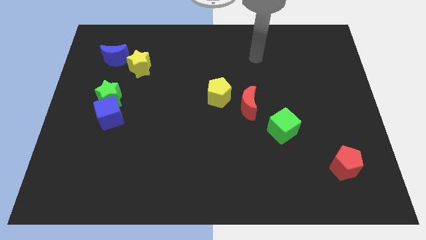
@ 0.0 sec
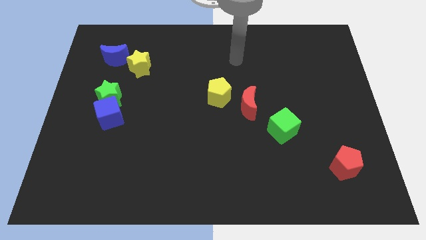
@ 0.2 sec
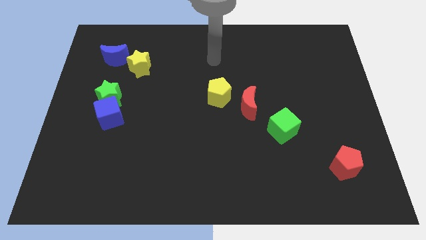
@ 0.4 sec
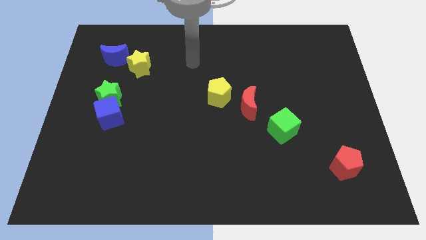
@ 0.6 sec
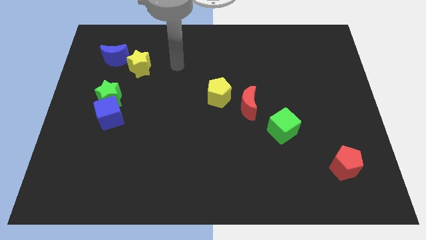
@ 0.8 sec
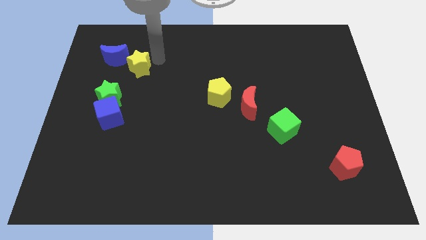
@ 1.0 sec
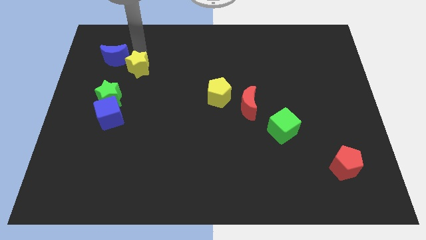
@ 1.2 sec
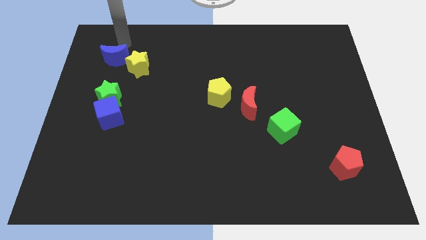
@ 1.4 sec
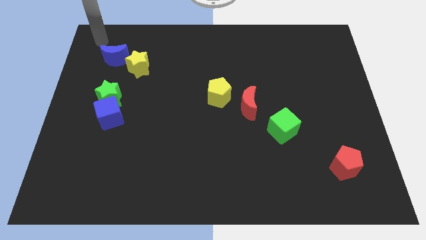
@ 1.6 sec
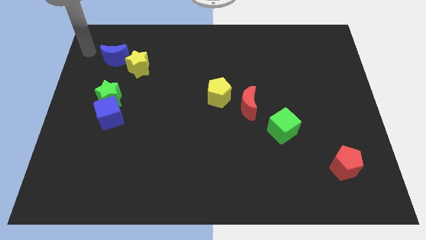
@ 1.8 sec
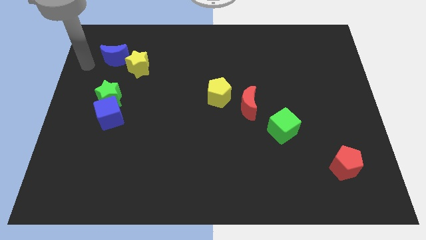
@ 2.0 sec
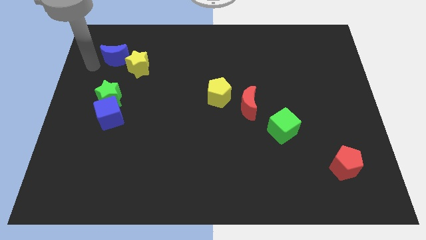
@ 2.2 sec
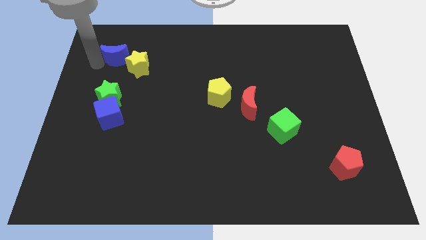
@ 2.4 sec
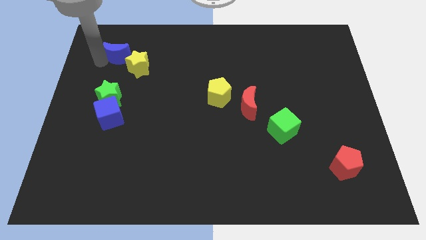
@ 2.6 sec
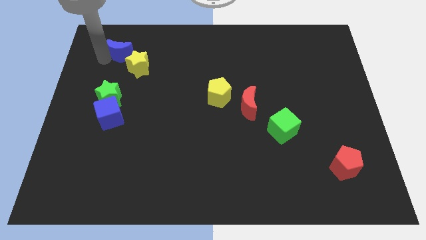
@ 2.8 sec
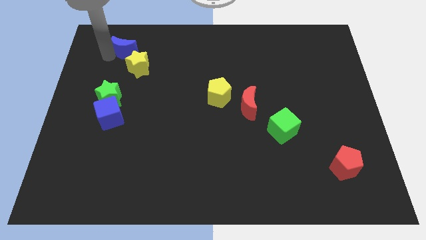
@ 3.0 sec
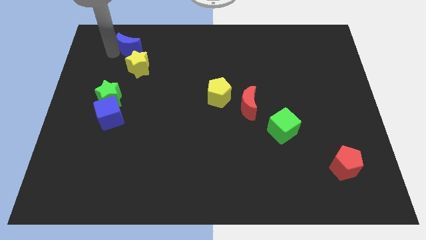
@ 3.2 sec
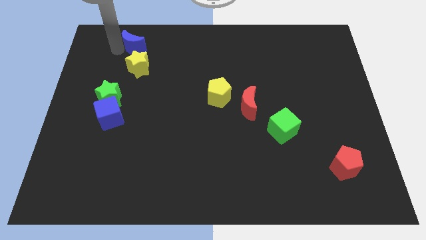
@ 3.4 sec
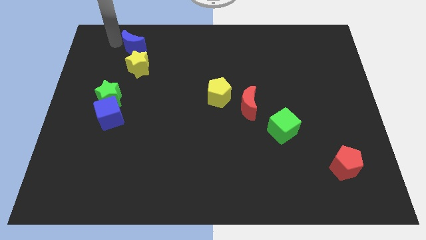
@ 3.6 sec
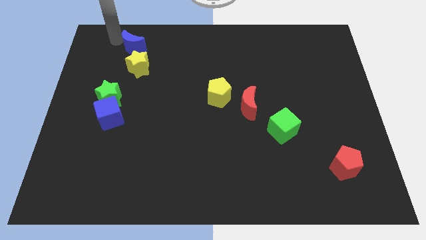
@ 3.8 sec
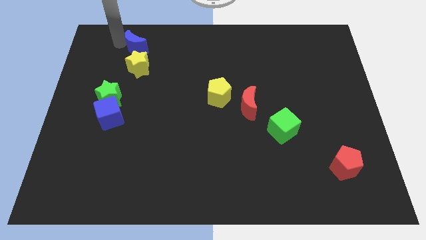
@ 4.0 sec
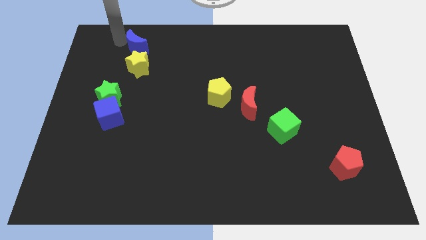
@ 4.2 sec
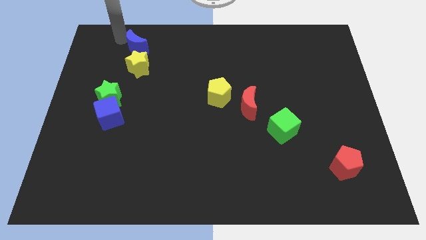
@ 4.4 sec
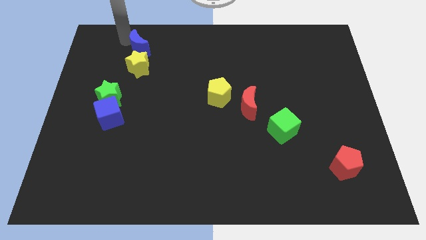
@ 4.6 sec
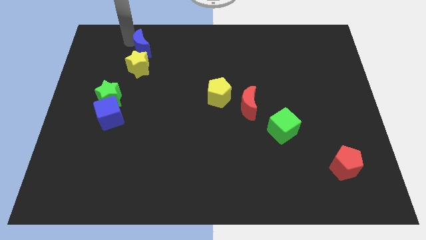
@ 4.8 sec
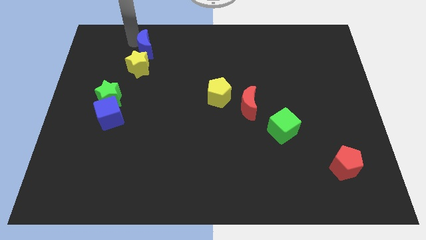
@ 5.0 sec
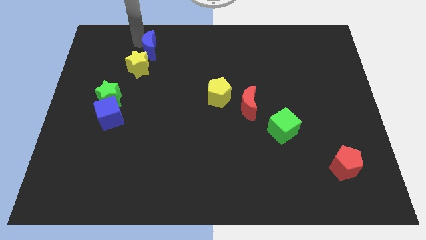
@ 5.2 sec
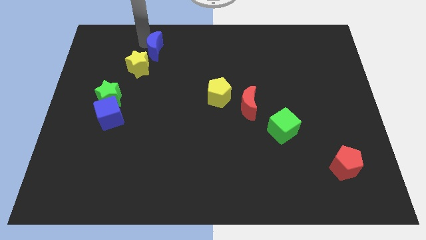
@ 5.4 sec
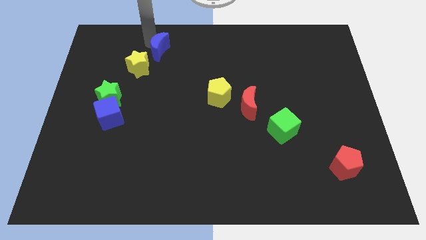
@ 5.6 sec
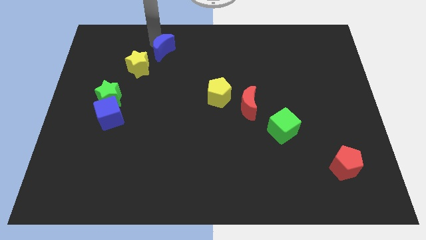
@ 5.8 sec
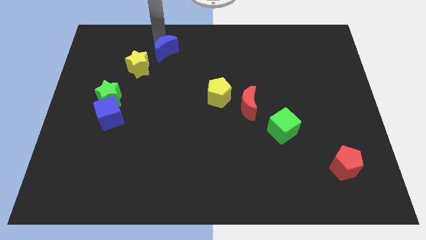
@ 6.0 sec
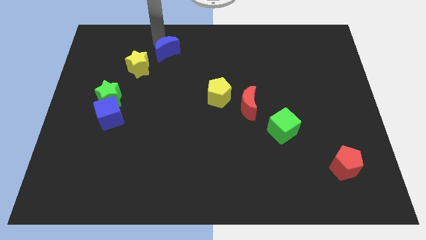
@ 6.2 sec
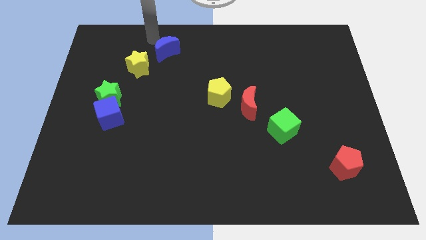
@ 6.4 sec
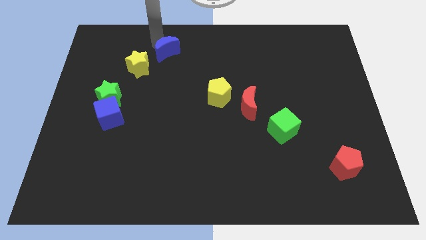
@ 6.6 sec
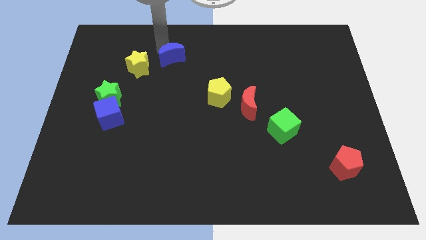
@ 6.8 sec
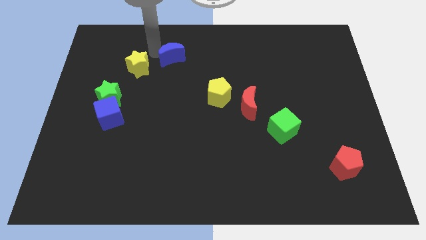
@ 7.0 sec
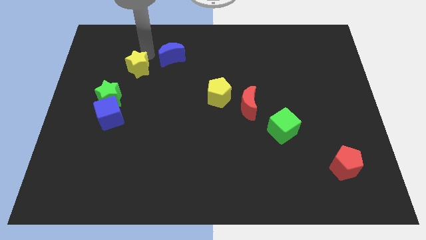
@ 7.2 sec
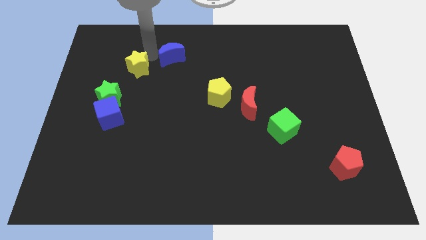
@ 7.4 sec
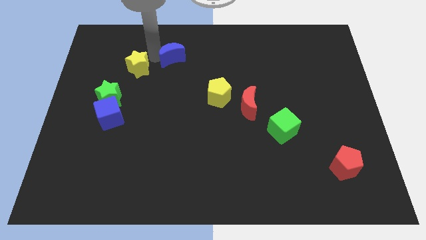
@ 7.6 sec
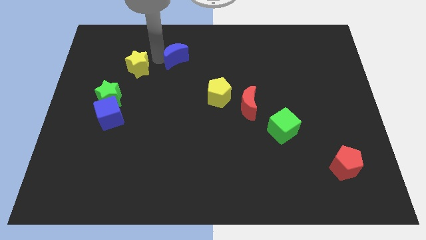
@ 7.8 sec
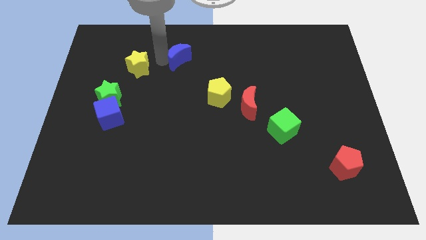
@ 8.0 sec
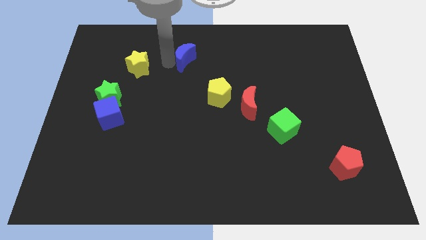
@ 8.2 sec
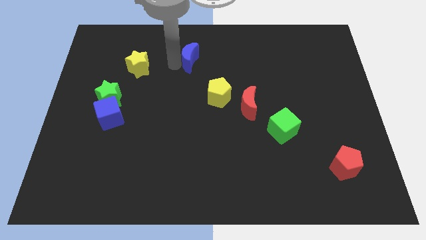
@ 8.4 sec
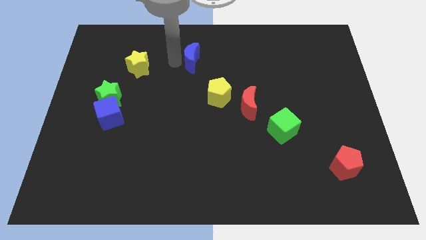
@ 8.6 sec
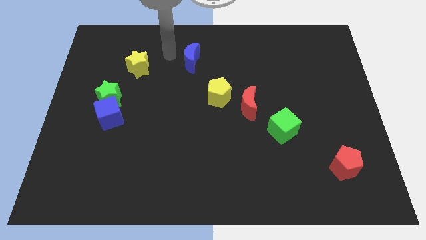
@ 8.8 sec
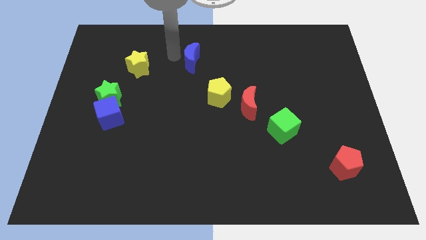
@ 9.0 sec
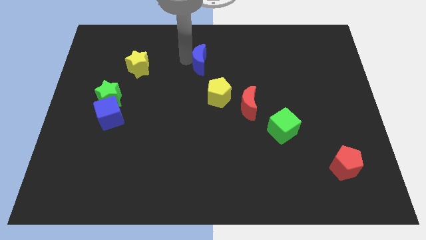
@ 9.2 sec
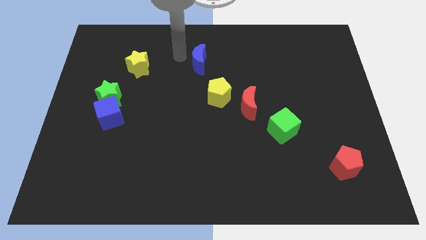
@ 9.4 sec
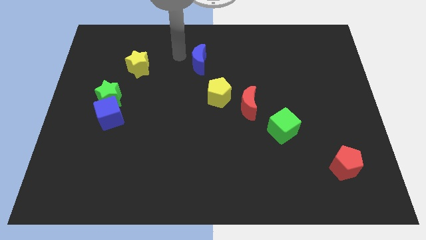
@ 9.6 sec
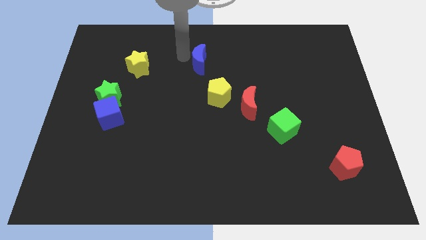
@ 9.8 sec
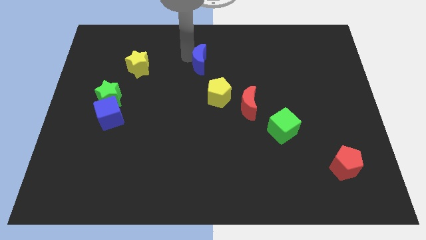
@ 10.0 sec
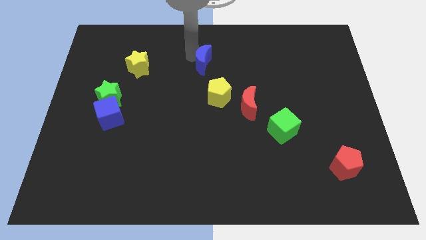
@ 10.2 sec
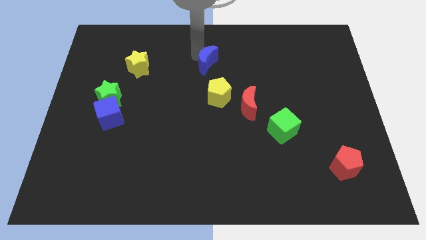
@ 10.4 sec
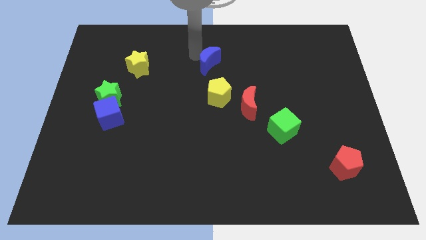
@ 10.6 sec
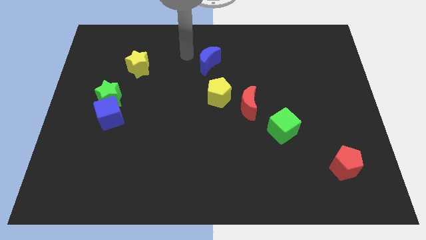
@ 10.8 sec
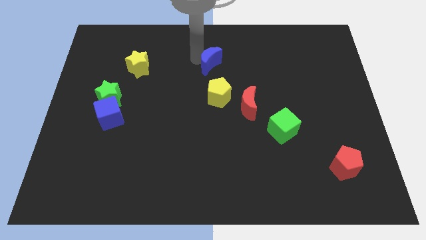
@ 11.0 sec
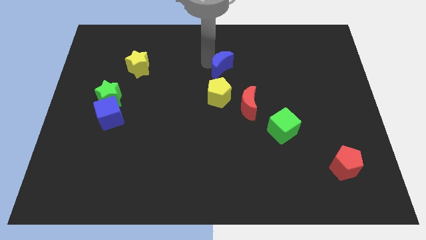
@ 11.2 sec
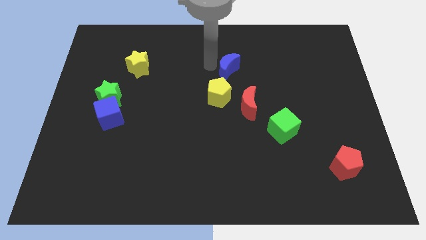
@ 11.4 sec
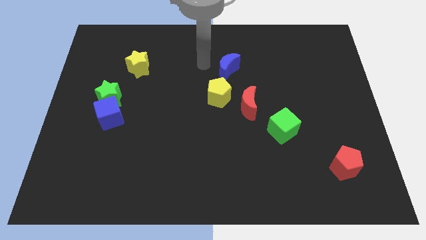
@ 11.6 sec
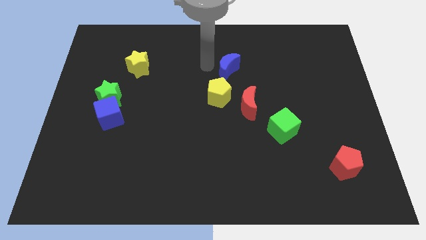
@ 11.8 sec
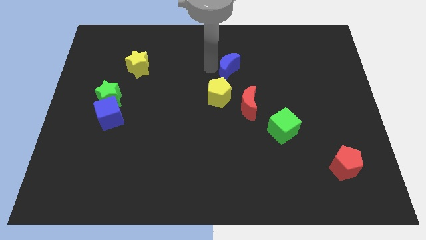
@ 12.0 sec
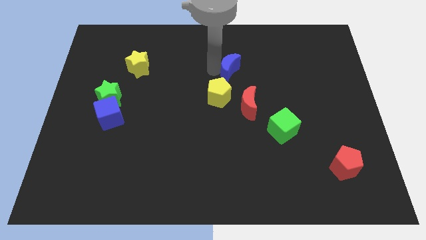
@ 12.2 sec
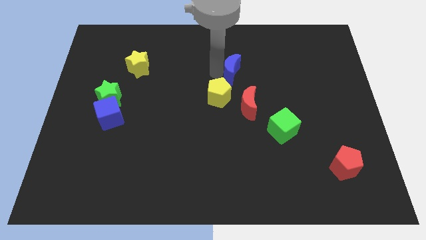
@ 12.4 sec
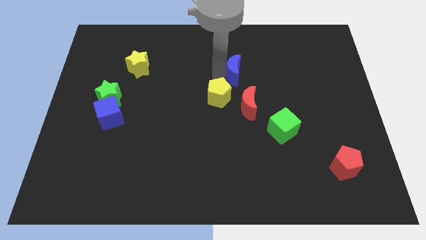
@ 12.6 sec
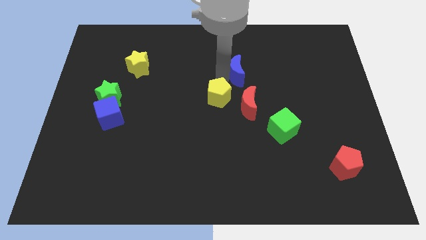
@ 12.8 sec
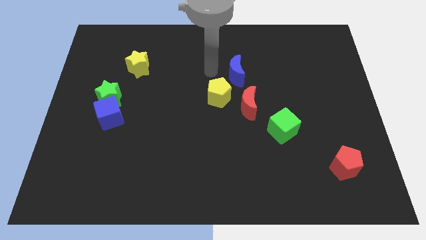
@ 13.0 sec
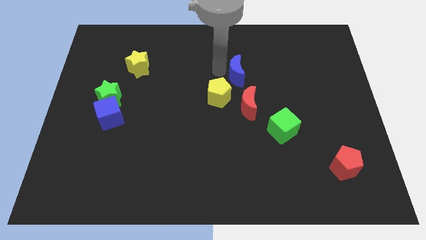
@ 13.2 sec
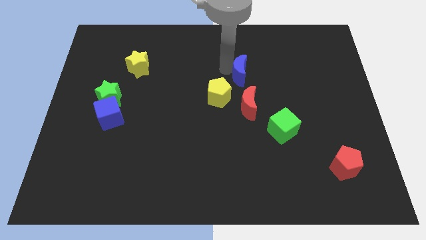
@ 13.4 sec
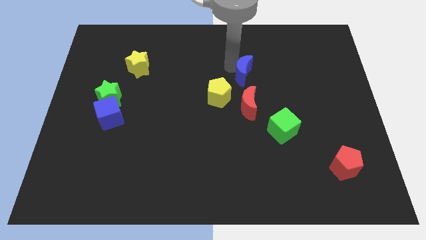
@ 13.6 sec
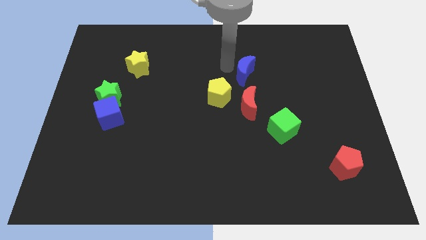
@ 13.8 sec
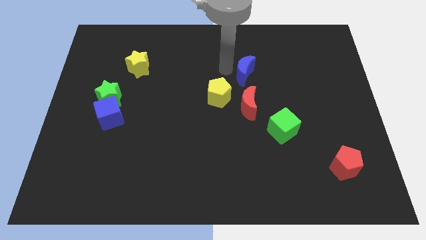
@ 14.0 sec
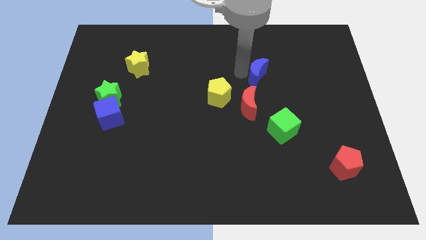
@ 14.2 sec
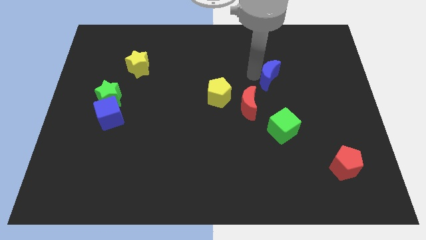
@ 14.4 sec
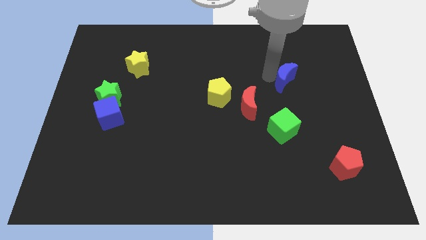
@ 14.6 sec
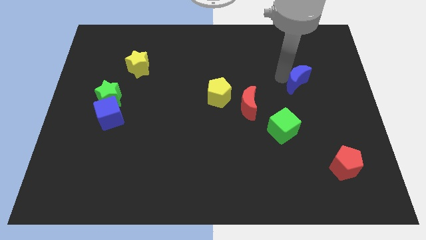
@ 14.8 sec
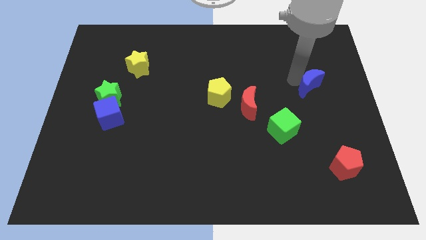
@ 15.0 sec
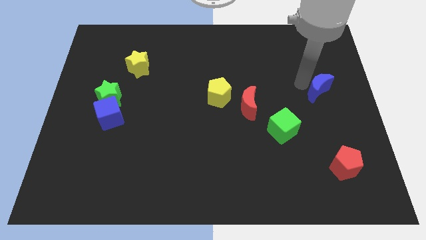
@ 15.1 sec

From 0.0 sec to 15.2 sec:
put the blue moon to the center right

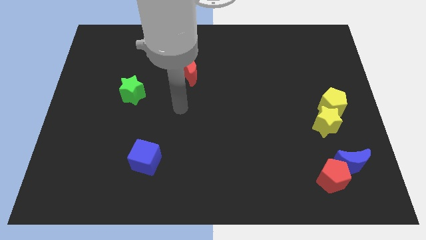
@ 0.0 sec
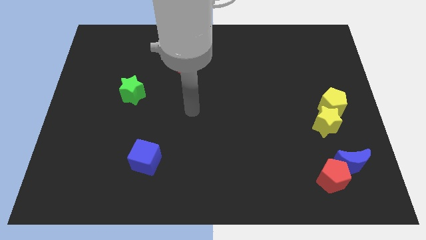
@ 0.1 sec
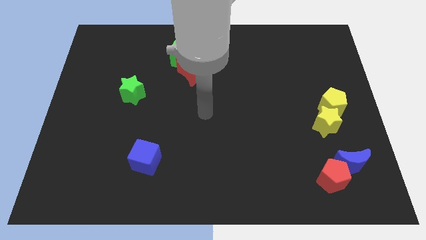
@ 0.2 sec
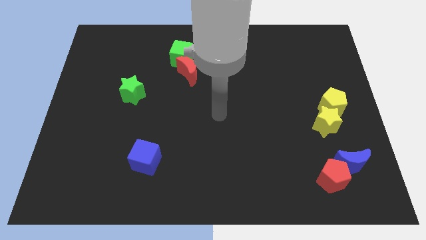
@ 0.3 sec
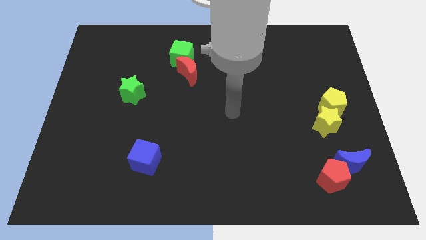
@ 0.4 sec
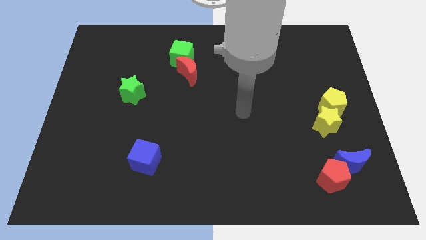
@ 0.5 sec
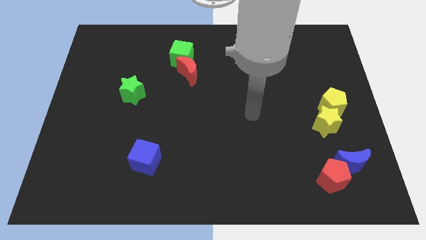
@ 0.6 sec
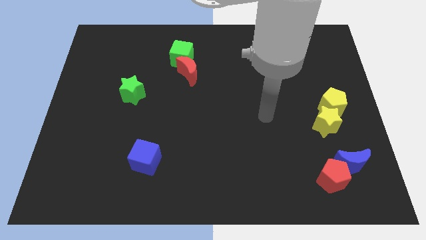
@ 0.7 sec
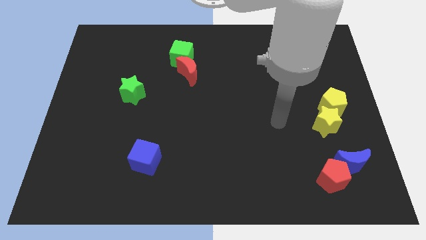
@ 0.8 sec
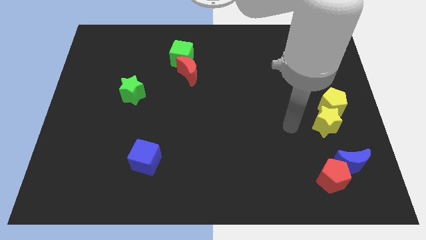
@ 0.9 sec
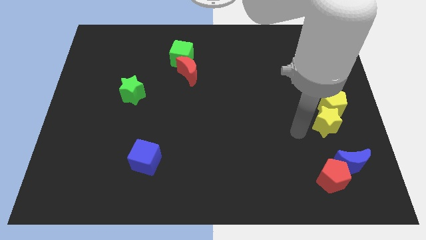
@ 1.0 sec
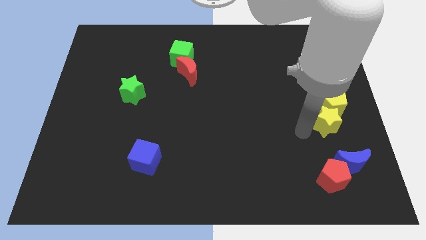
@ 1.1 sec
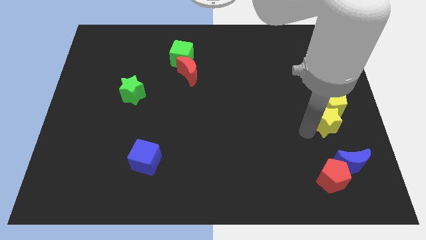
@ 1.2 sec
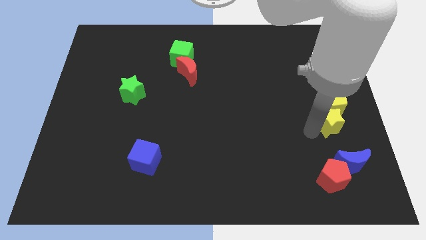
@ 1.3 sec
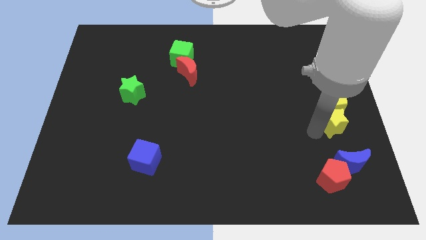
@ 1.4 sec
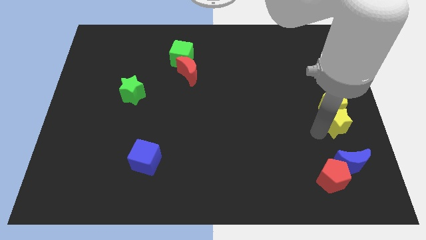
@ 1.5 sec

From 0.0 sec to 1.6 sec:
slide the yellow star to the center right
